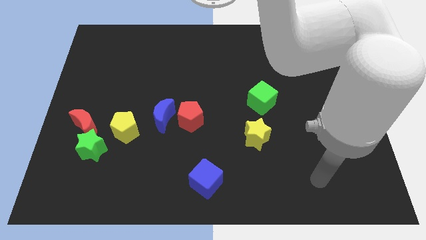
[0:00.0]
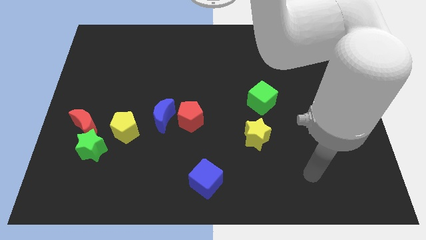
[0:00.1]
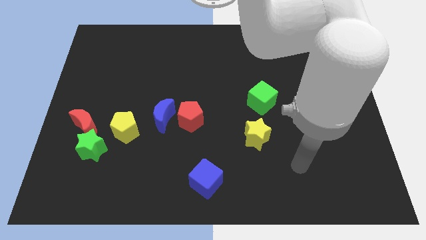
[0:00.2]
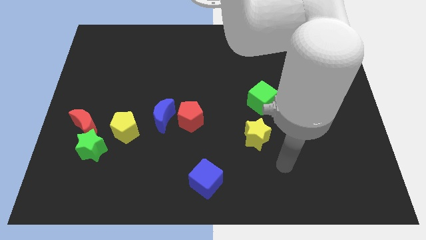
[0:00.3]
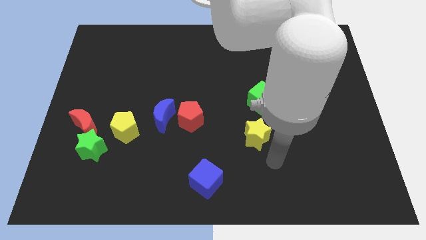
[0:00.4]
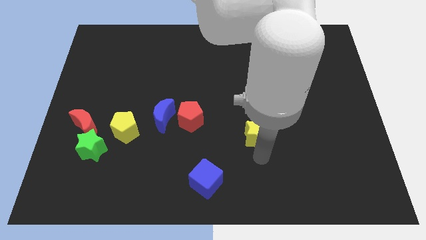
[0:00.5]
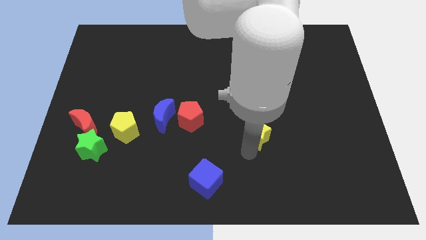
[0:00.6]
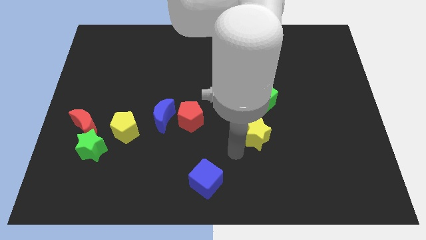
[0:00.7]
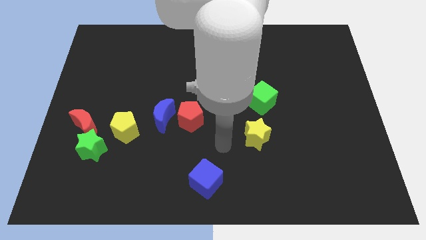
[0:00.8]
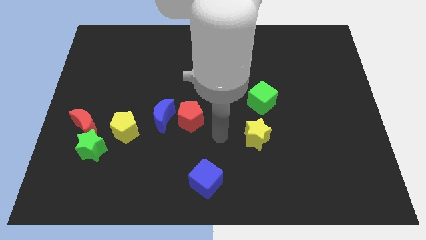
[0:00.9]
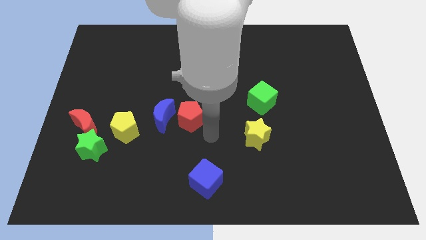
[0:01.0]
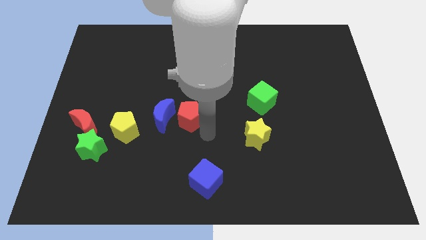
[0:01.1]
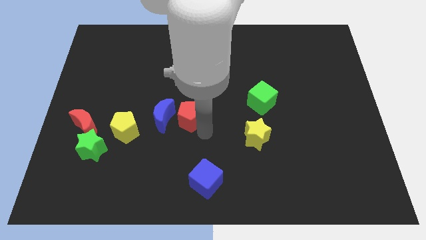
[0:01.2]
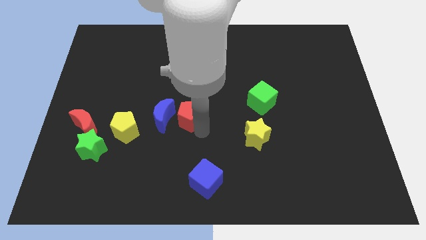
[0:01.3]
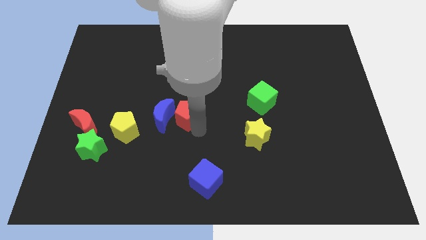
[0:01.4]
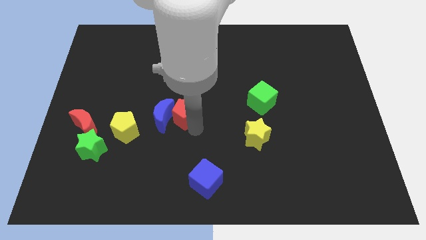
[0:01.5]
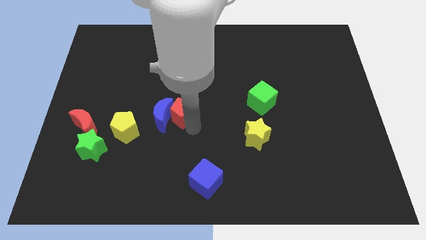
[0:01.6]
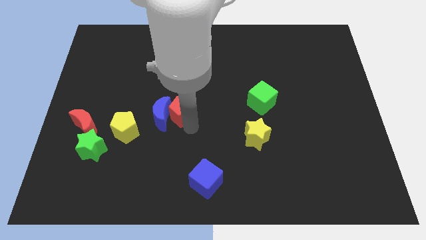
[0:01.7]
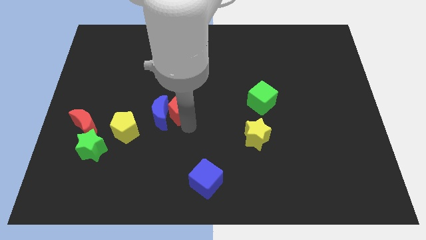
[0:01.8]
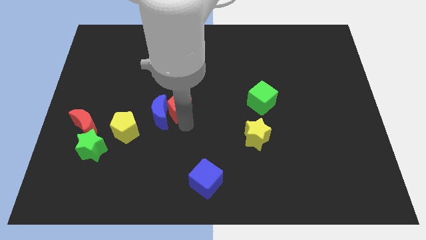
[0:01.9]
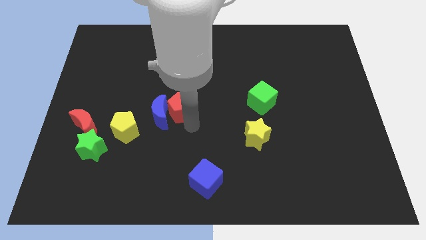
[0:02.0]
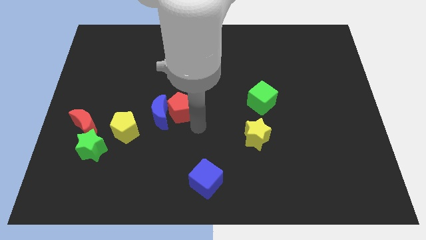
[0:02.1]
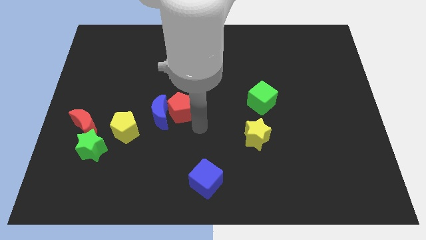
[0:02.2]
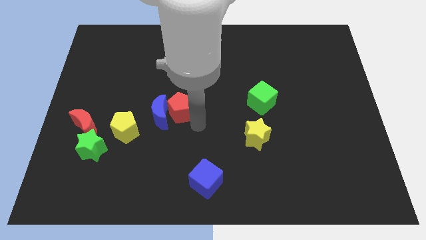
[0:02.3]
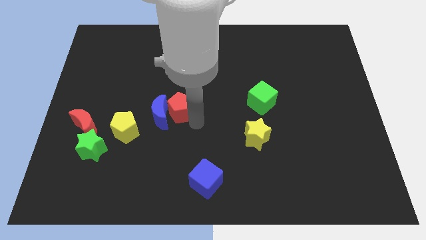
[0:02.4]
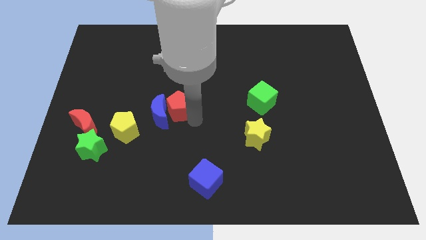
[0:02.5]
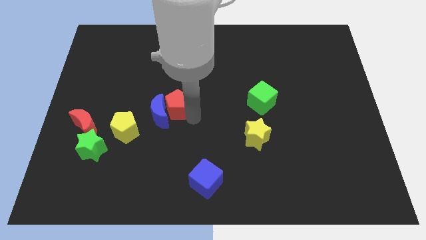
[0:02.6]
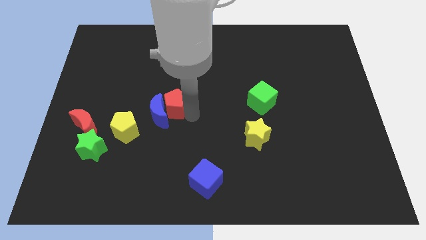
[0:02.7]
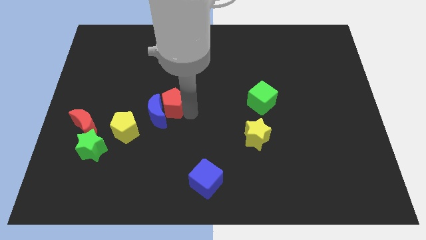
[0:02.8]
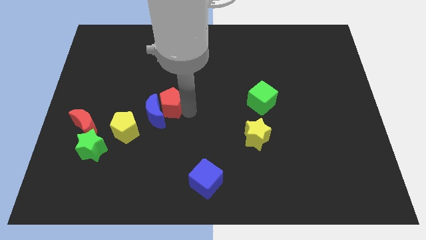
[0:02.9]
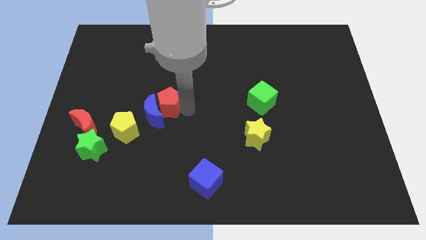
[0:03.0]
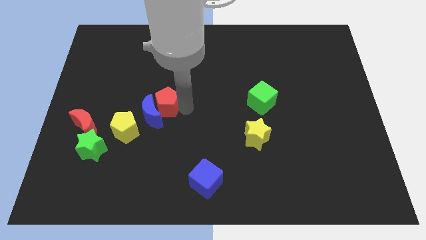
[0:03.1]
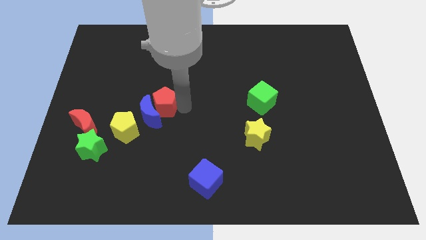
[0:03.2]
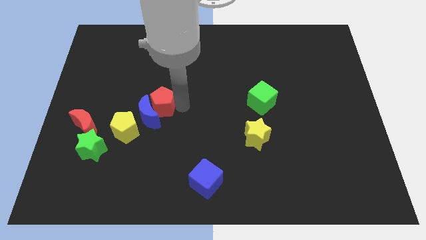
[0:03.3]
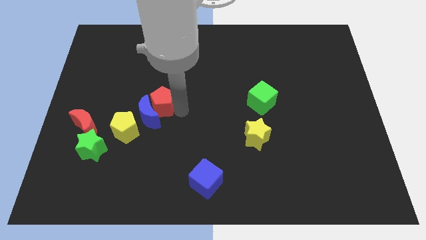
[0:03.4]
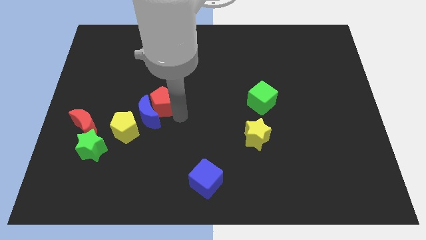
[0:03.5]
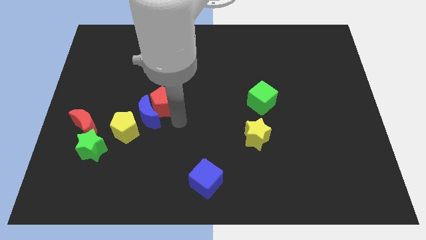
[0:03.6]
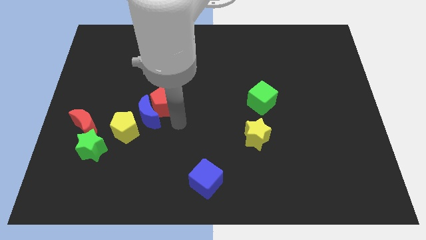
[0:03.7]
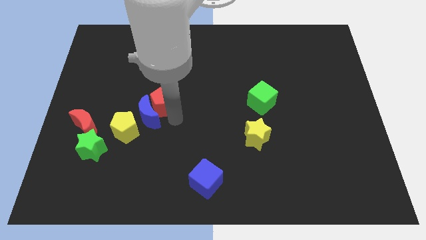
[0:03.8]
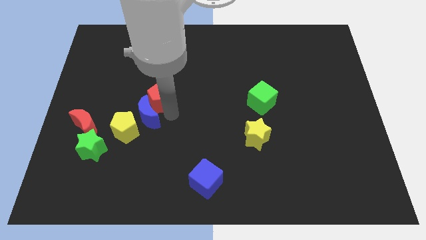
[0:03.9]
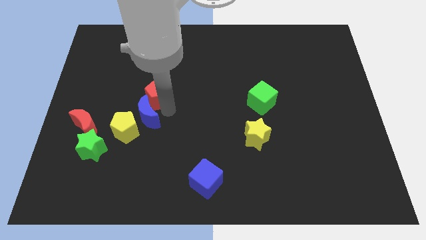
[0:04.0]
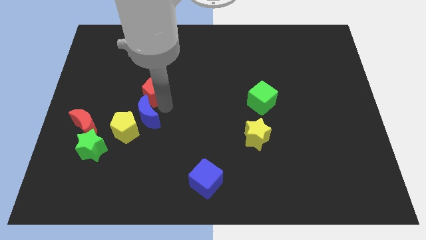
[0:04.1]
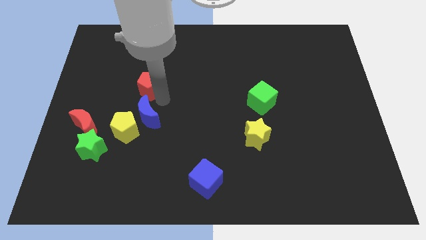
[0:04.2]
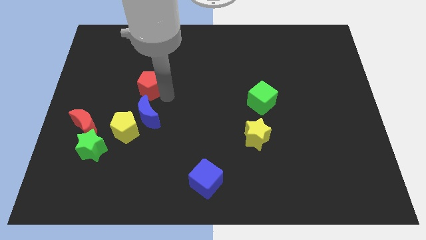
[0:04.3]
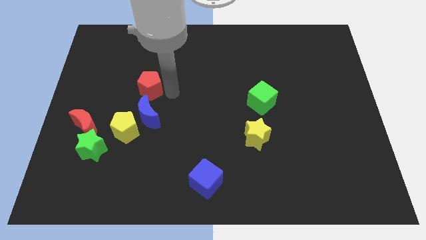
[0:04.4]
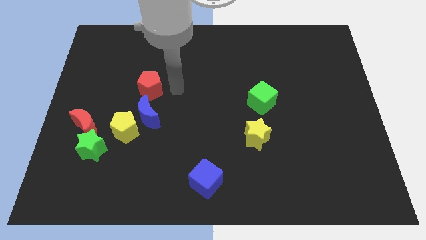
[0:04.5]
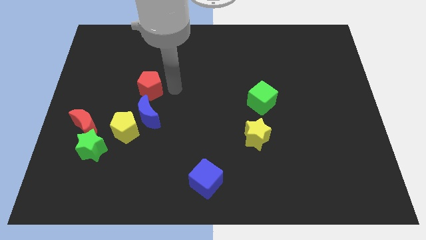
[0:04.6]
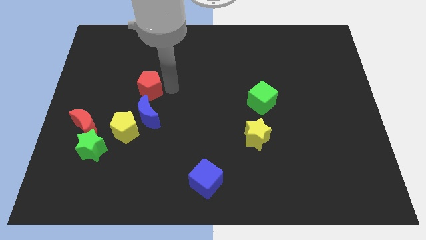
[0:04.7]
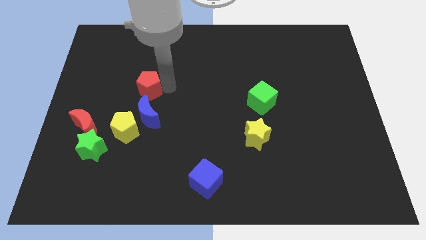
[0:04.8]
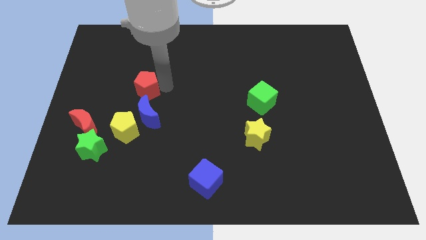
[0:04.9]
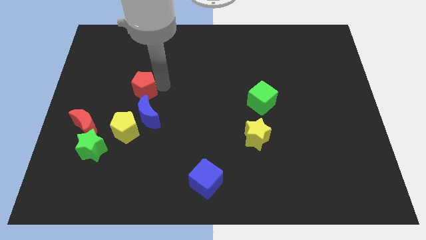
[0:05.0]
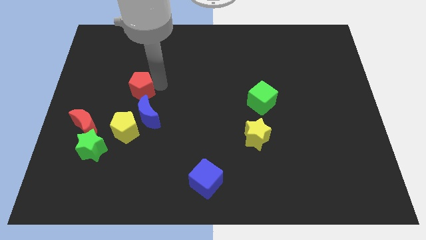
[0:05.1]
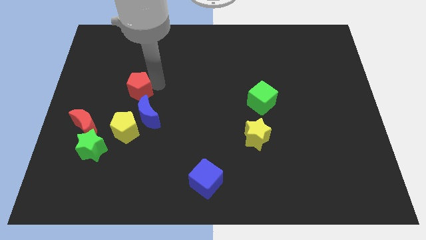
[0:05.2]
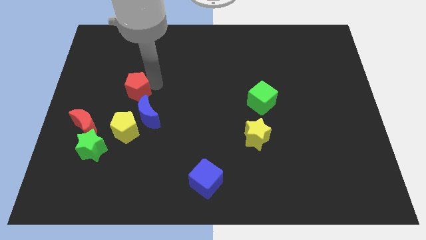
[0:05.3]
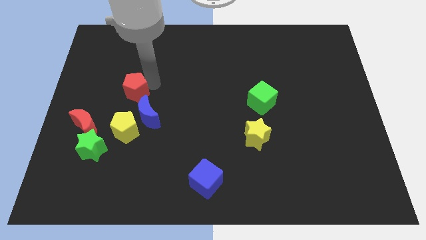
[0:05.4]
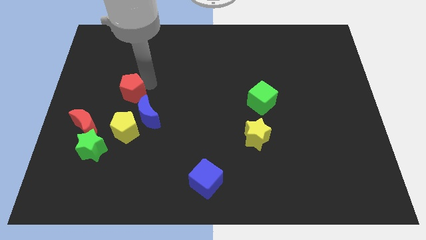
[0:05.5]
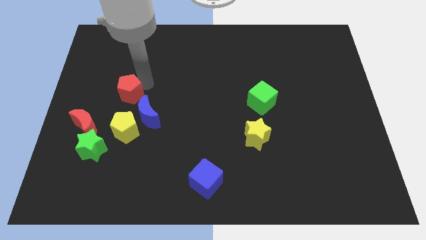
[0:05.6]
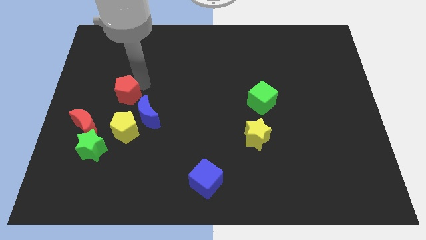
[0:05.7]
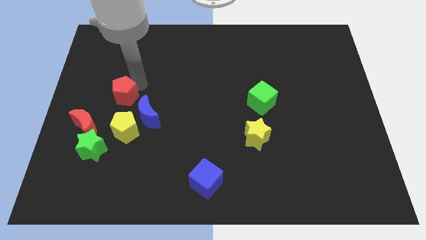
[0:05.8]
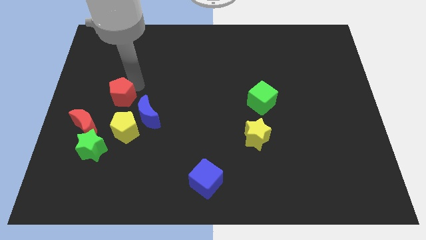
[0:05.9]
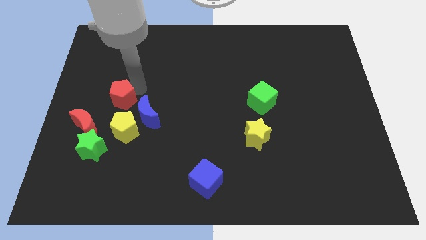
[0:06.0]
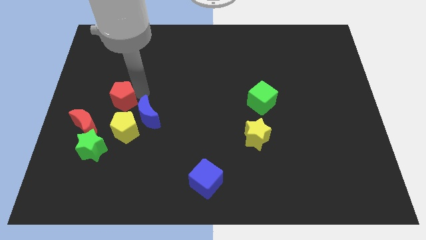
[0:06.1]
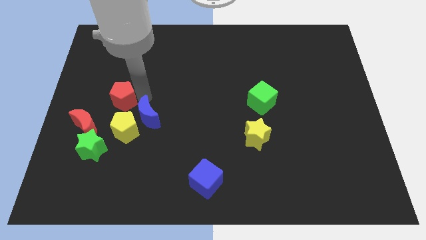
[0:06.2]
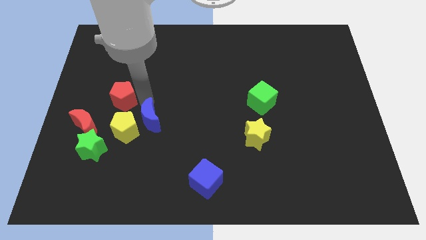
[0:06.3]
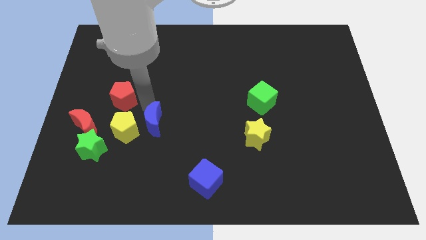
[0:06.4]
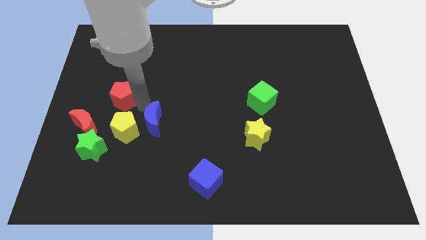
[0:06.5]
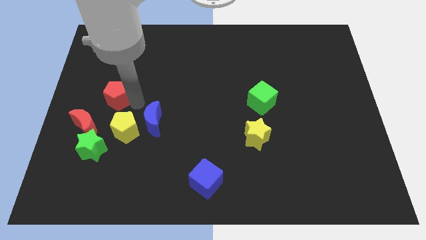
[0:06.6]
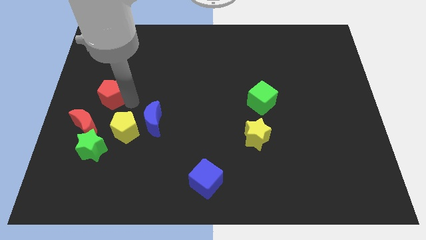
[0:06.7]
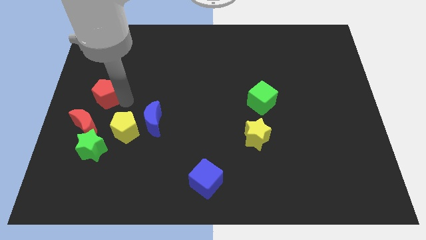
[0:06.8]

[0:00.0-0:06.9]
slide the red pentagon to the center left
